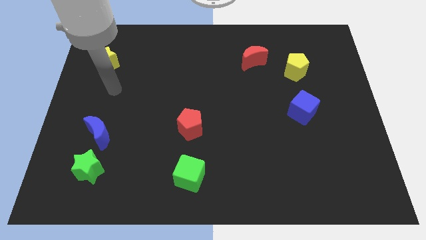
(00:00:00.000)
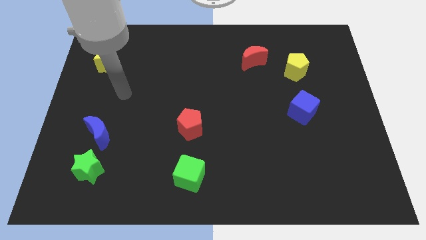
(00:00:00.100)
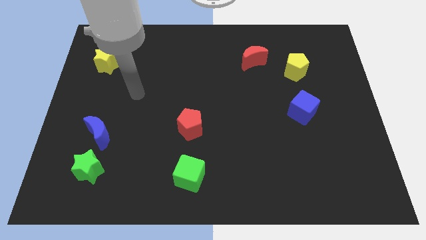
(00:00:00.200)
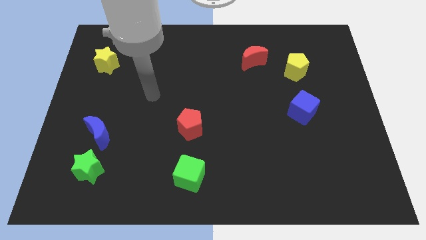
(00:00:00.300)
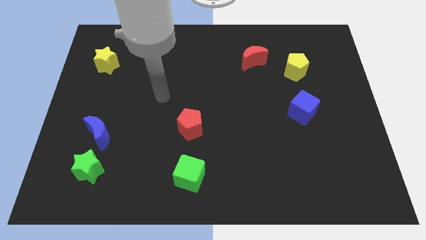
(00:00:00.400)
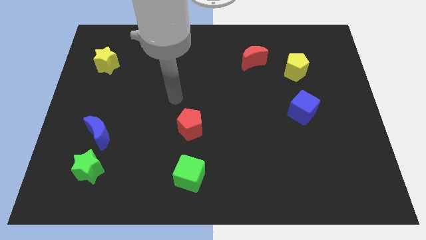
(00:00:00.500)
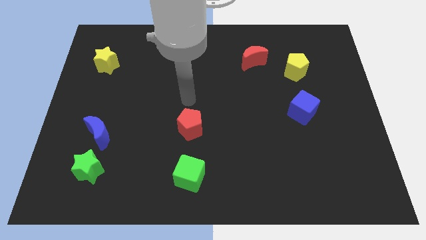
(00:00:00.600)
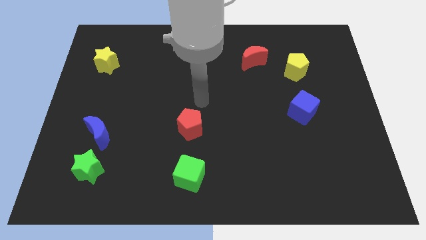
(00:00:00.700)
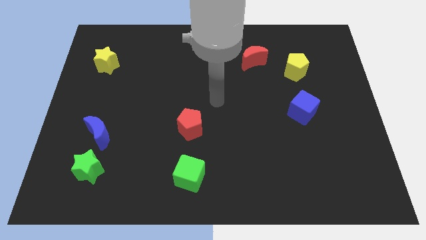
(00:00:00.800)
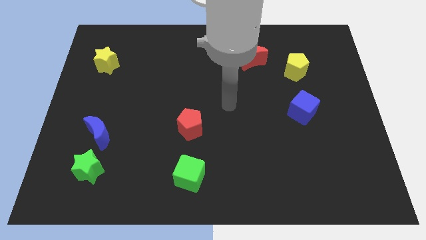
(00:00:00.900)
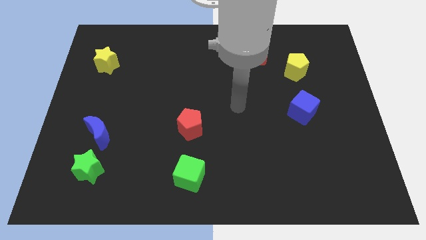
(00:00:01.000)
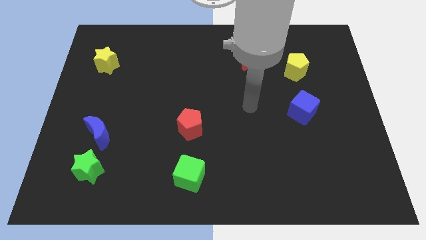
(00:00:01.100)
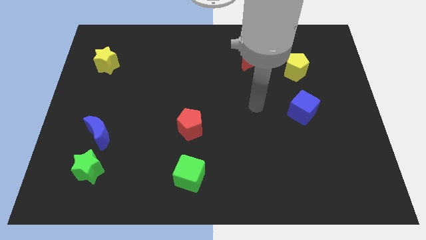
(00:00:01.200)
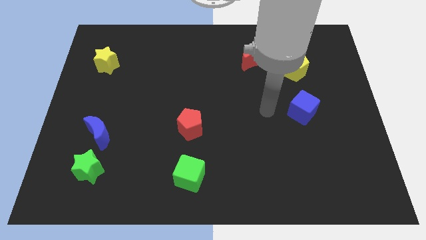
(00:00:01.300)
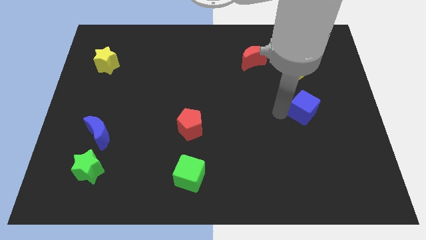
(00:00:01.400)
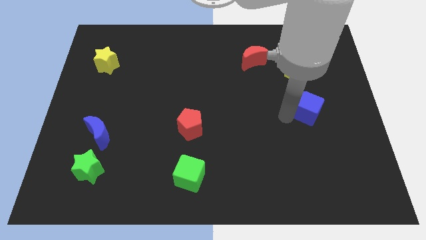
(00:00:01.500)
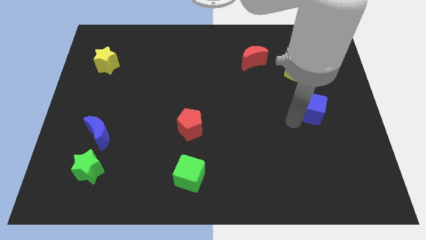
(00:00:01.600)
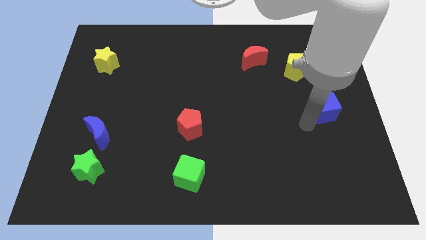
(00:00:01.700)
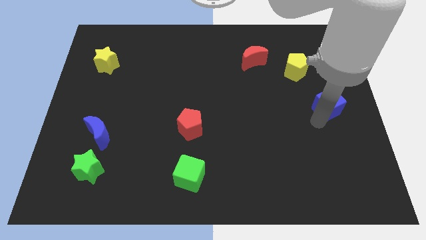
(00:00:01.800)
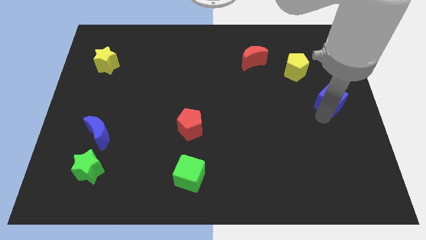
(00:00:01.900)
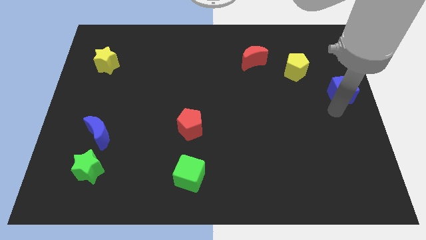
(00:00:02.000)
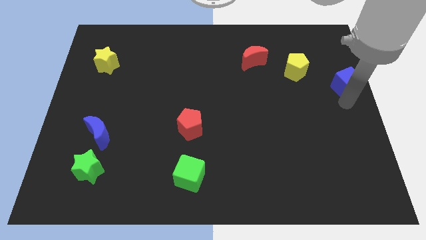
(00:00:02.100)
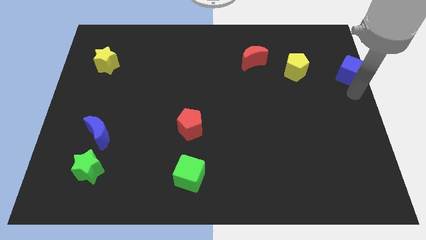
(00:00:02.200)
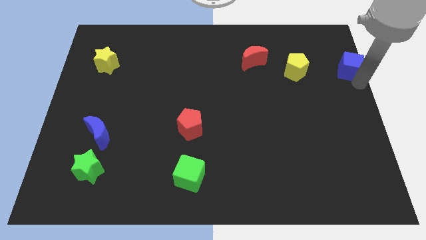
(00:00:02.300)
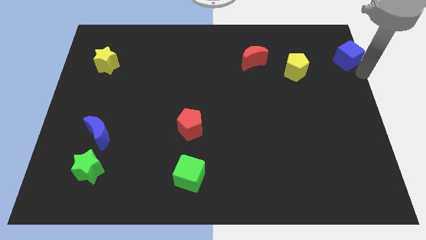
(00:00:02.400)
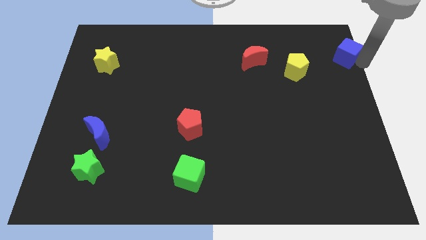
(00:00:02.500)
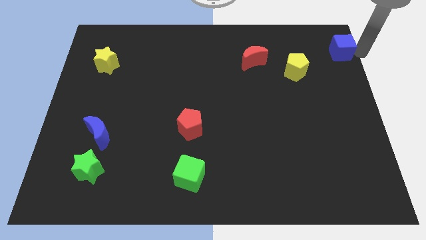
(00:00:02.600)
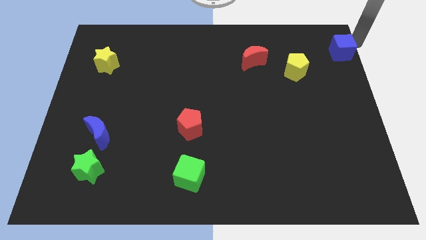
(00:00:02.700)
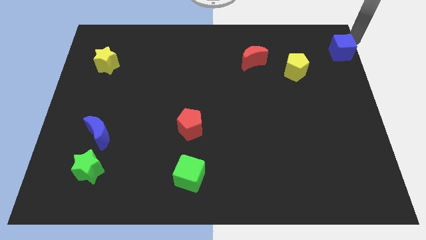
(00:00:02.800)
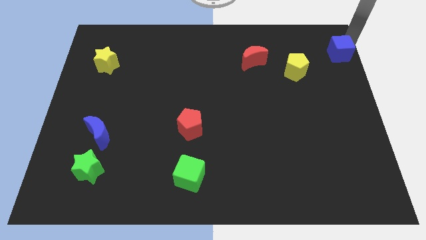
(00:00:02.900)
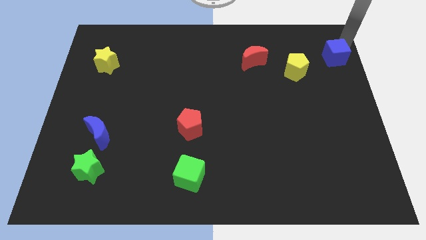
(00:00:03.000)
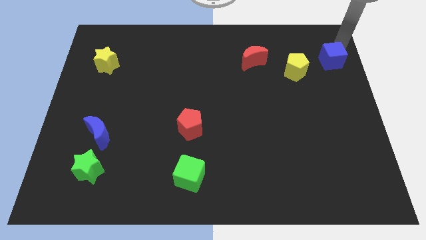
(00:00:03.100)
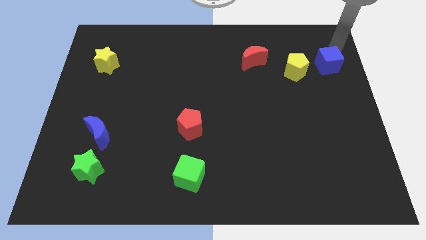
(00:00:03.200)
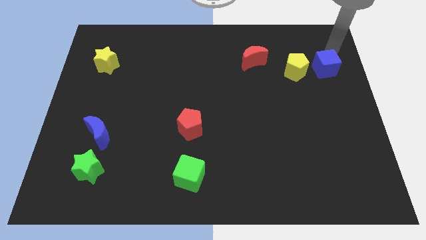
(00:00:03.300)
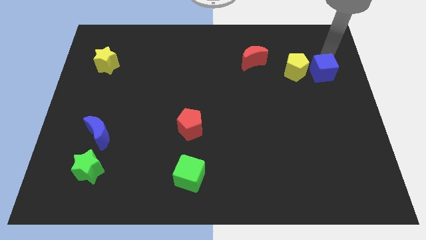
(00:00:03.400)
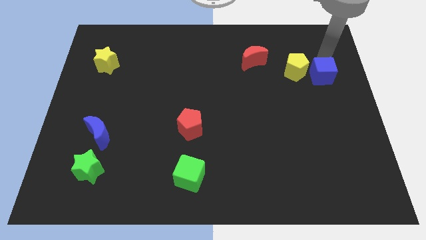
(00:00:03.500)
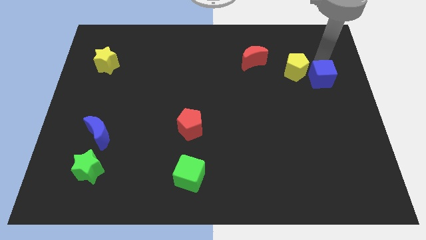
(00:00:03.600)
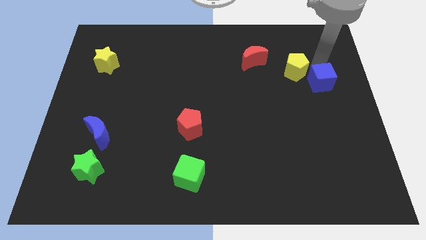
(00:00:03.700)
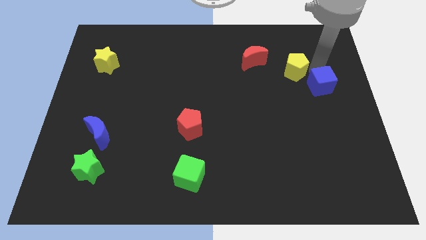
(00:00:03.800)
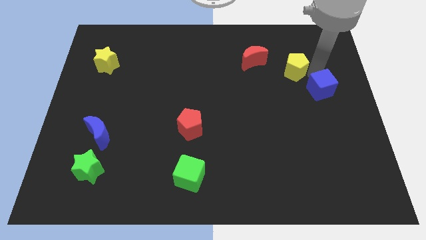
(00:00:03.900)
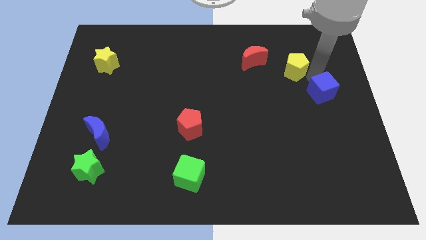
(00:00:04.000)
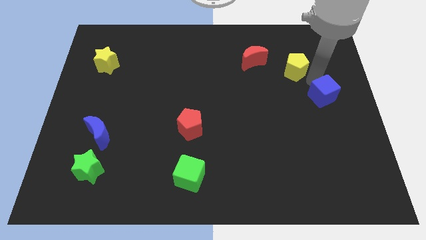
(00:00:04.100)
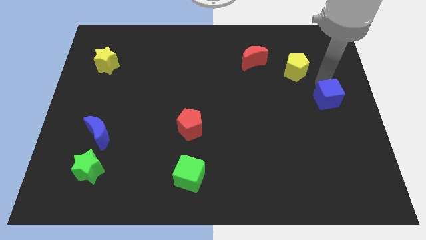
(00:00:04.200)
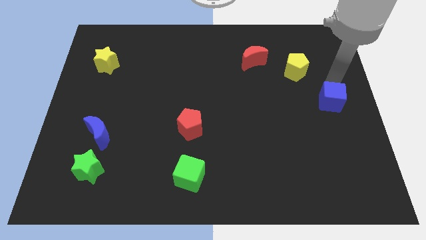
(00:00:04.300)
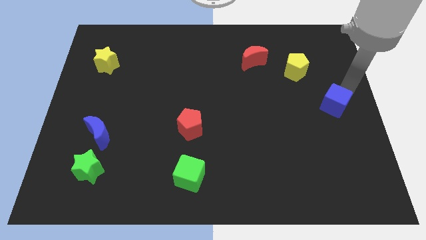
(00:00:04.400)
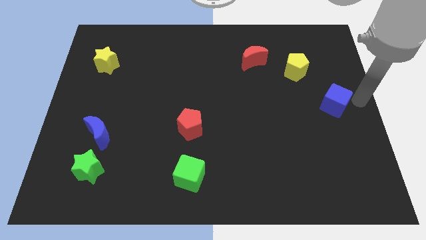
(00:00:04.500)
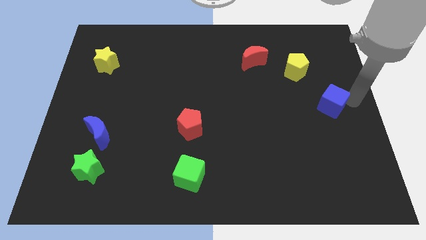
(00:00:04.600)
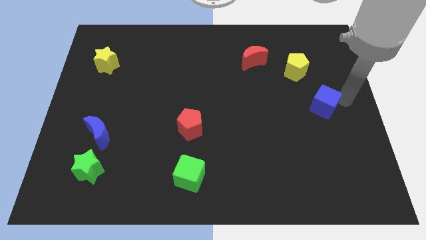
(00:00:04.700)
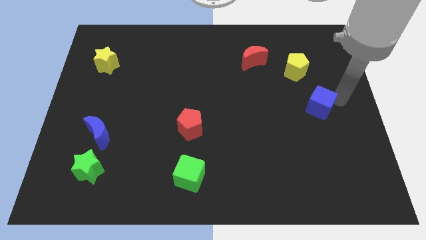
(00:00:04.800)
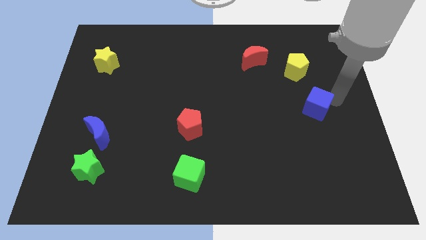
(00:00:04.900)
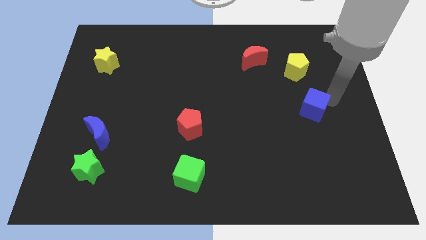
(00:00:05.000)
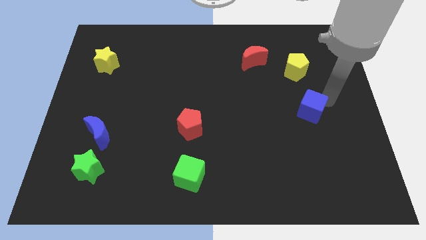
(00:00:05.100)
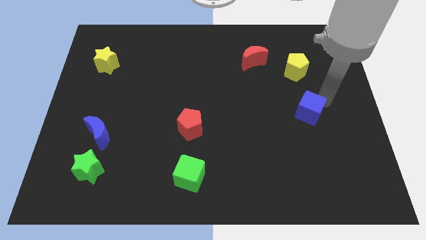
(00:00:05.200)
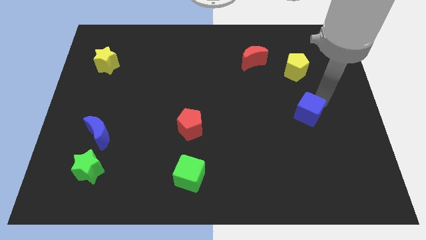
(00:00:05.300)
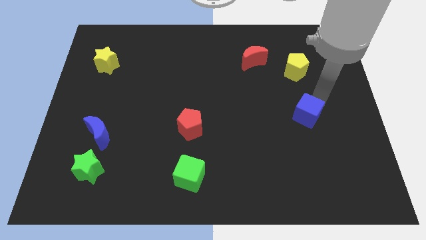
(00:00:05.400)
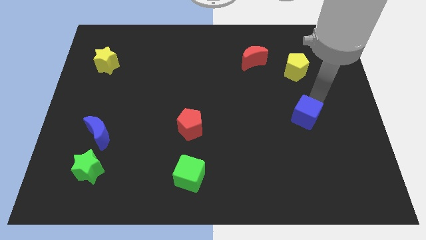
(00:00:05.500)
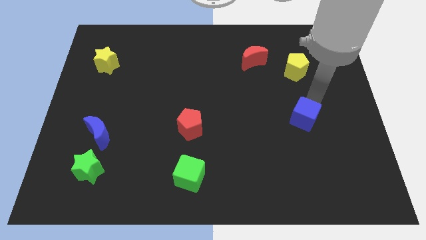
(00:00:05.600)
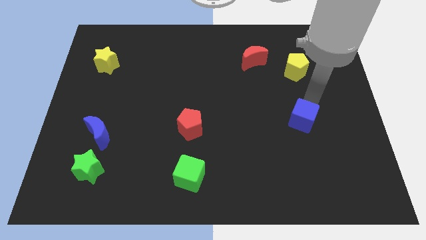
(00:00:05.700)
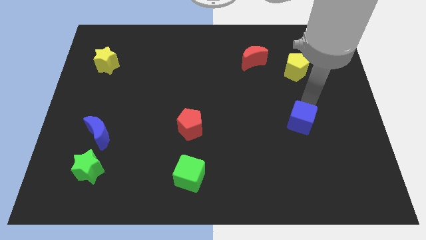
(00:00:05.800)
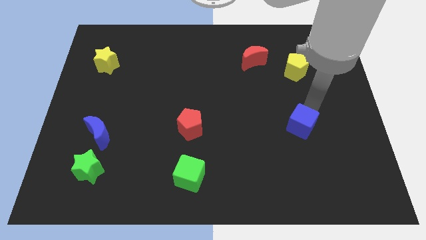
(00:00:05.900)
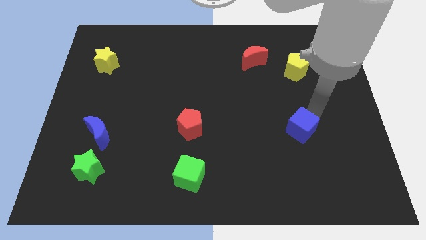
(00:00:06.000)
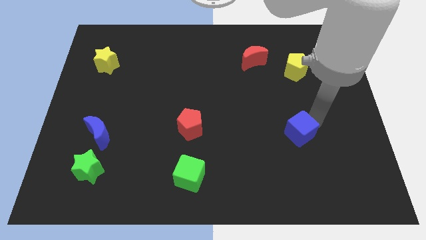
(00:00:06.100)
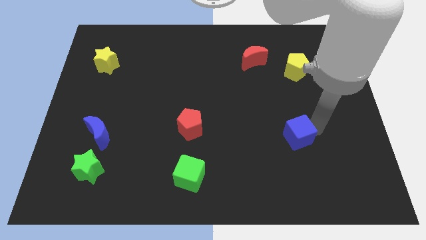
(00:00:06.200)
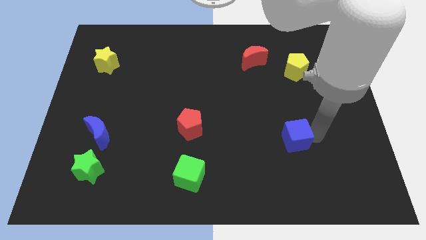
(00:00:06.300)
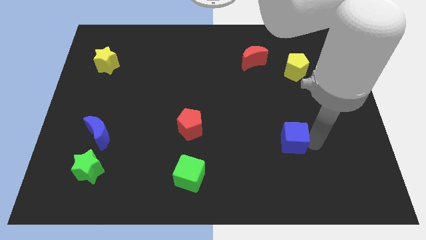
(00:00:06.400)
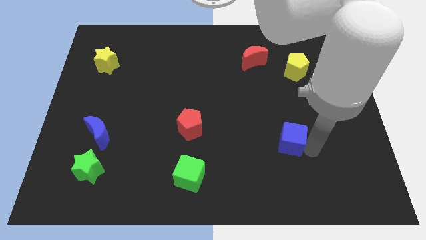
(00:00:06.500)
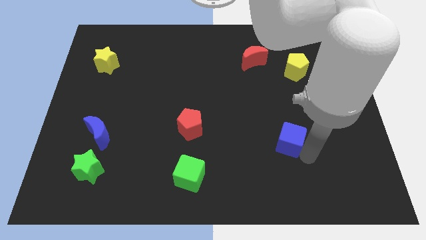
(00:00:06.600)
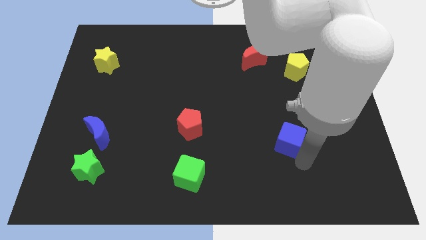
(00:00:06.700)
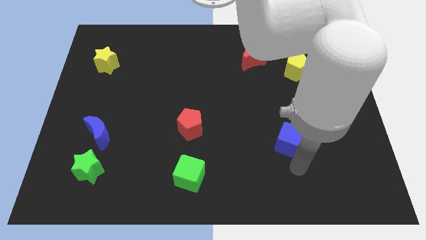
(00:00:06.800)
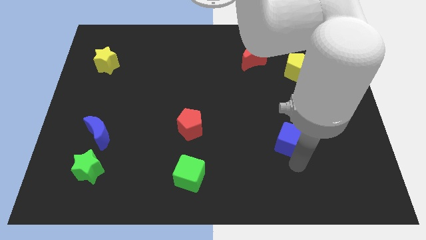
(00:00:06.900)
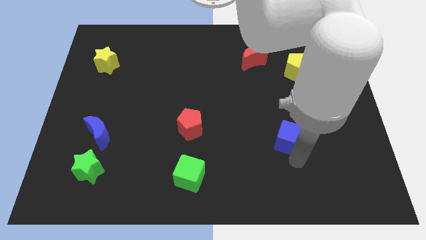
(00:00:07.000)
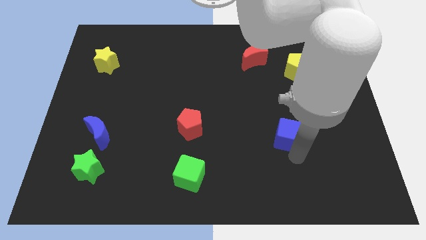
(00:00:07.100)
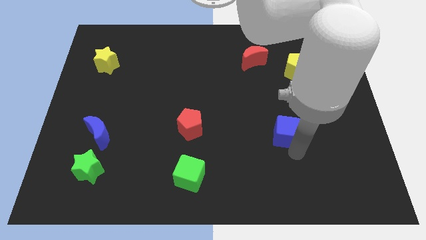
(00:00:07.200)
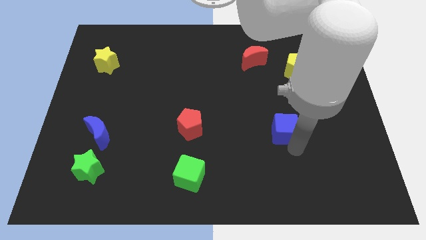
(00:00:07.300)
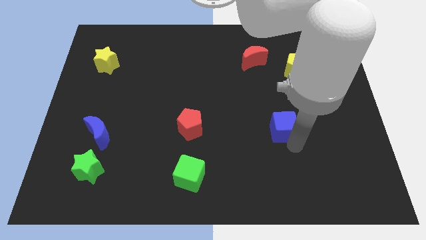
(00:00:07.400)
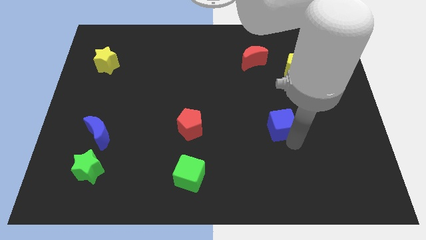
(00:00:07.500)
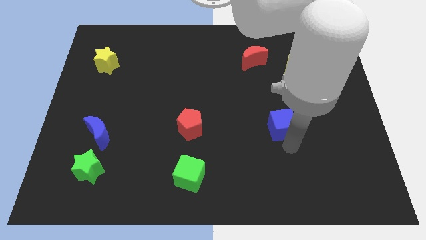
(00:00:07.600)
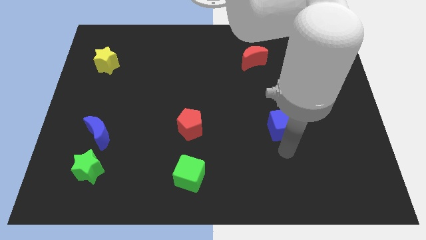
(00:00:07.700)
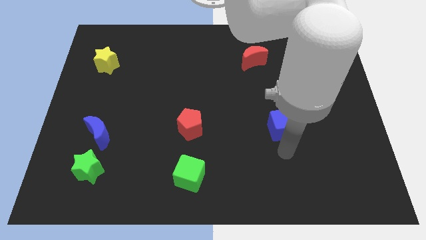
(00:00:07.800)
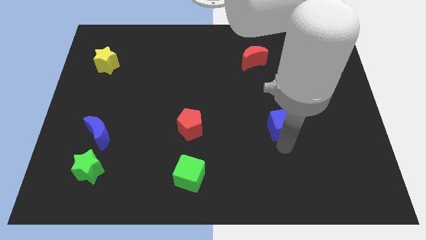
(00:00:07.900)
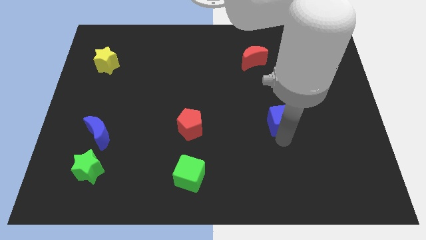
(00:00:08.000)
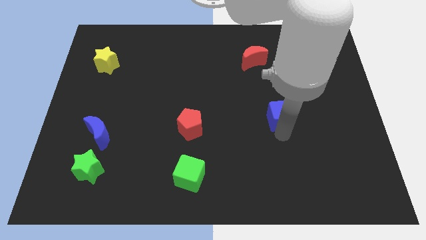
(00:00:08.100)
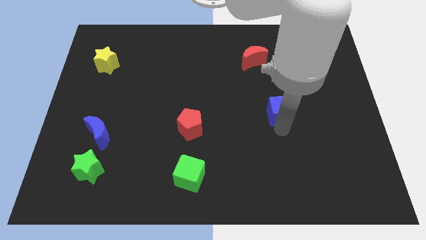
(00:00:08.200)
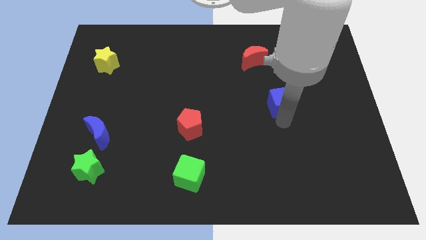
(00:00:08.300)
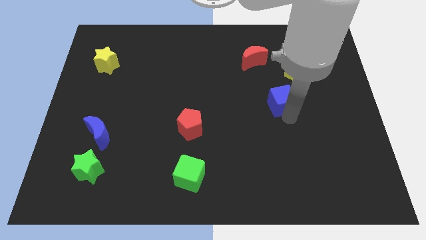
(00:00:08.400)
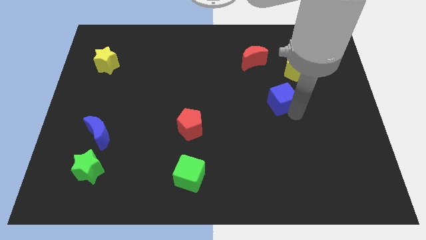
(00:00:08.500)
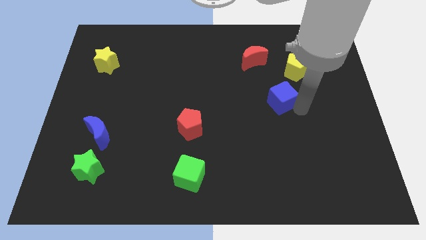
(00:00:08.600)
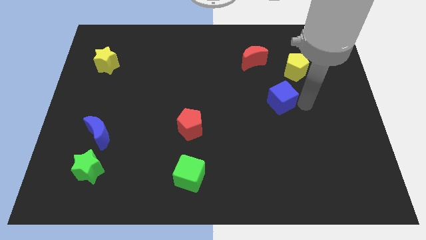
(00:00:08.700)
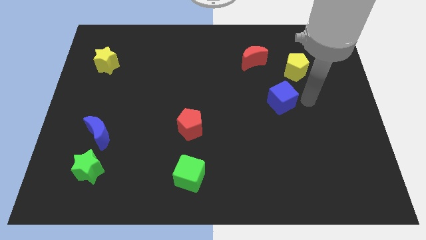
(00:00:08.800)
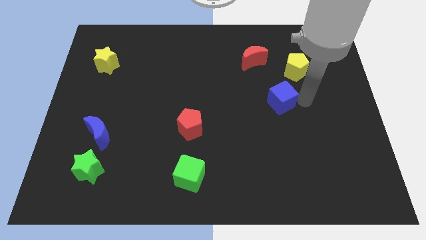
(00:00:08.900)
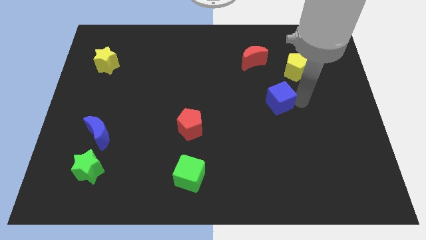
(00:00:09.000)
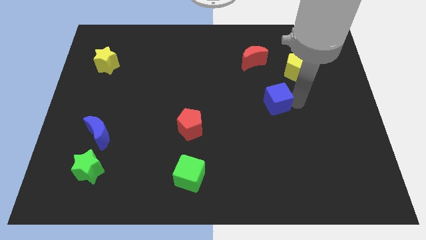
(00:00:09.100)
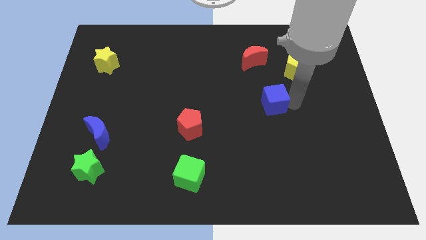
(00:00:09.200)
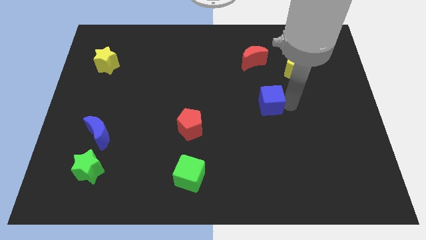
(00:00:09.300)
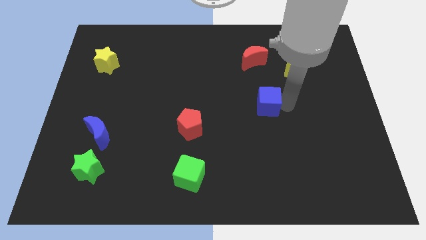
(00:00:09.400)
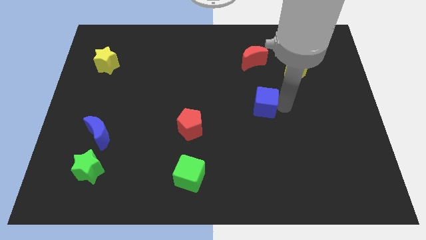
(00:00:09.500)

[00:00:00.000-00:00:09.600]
slide the blue cube to the center
